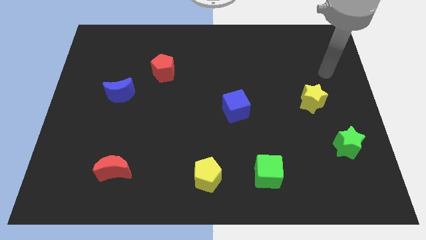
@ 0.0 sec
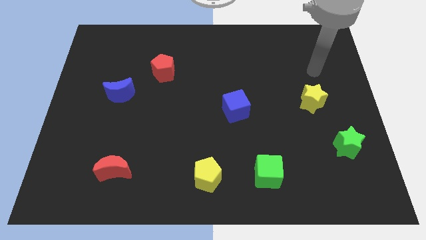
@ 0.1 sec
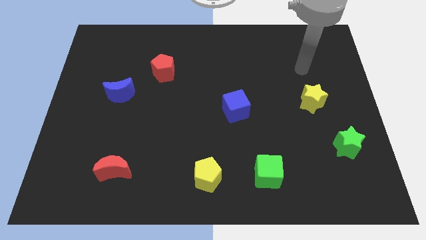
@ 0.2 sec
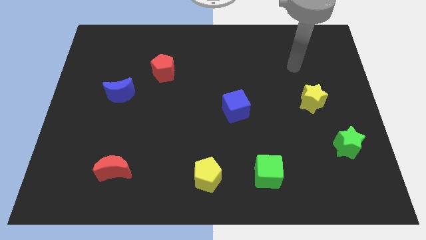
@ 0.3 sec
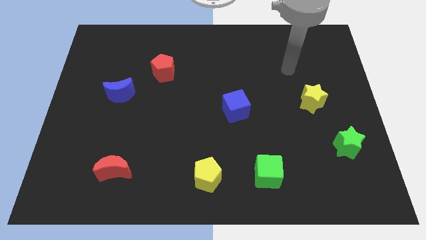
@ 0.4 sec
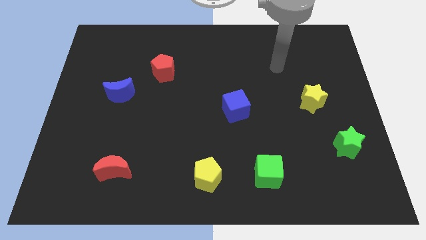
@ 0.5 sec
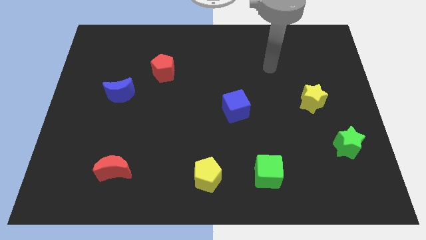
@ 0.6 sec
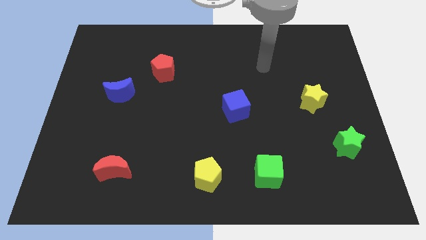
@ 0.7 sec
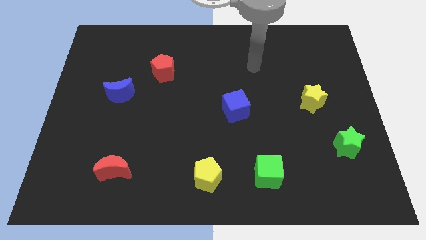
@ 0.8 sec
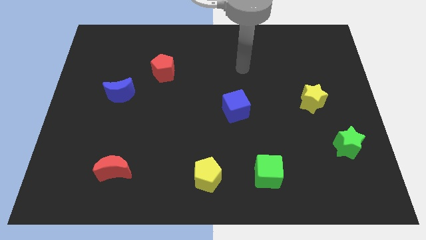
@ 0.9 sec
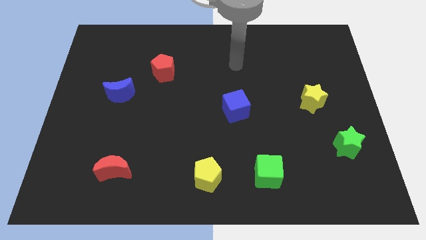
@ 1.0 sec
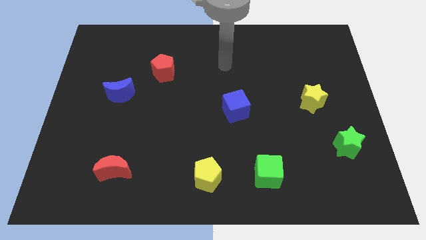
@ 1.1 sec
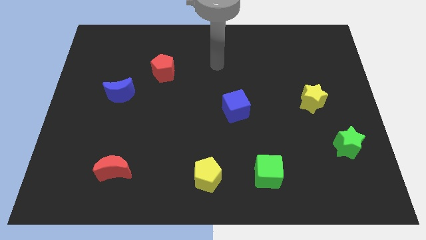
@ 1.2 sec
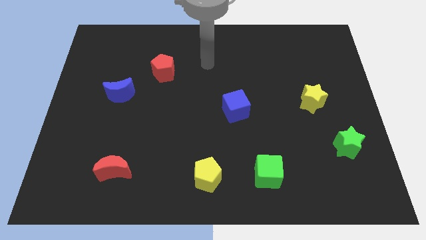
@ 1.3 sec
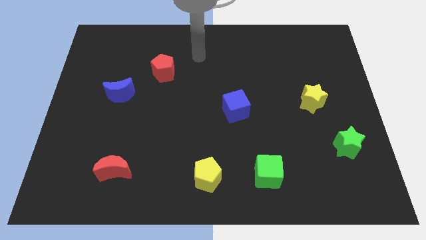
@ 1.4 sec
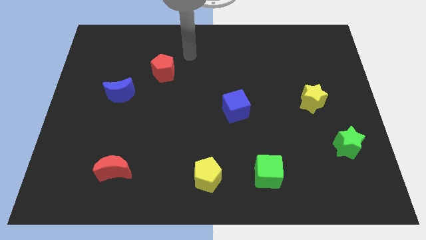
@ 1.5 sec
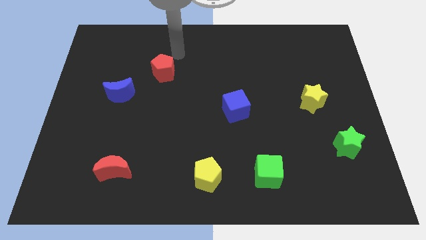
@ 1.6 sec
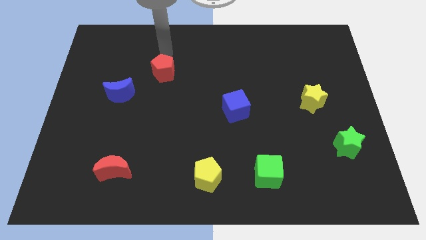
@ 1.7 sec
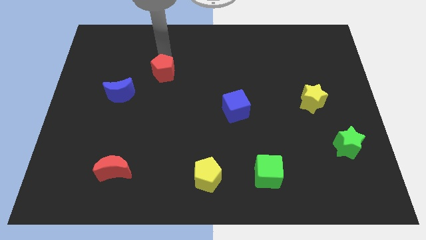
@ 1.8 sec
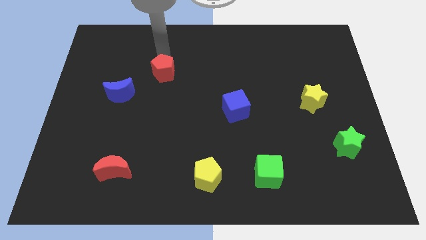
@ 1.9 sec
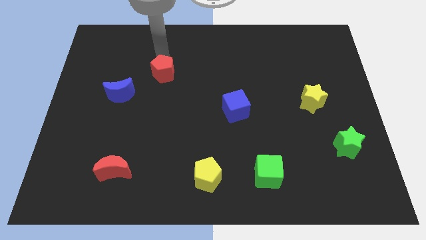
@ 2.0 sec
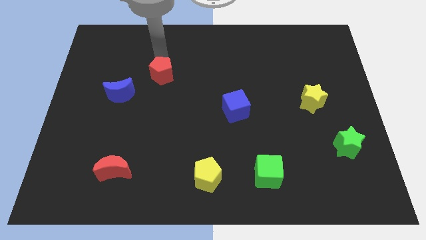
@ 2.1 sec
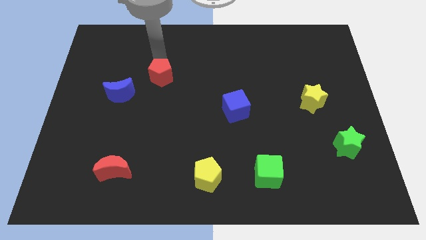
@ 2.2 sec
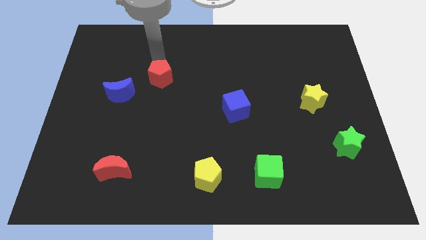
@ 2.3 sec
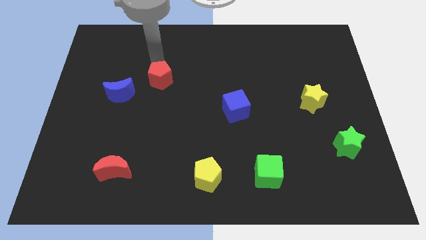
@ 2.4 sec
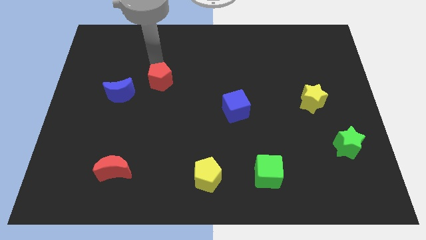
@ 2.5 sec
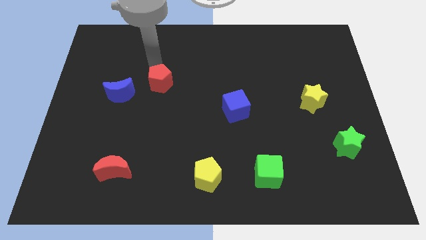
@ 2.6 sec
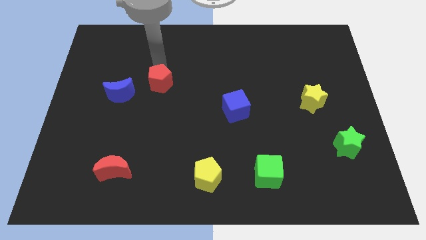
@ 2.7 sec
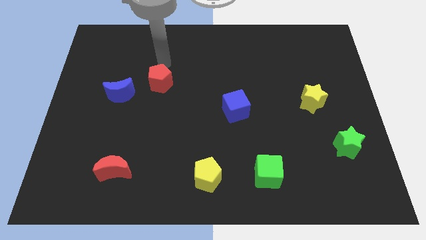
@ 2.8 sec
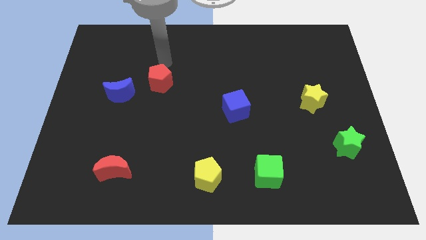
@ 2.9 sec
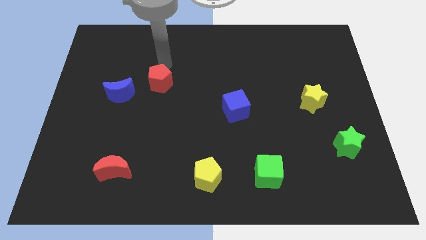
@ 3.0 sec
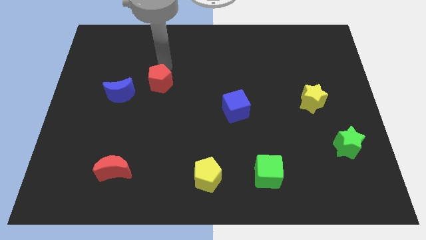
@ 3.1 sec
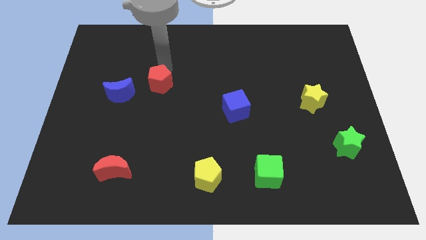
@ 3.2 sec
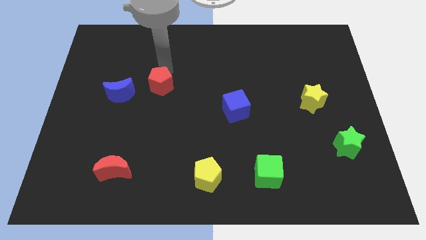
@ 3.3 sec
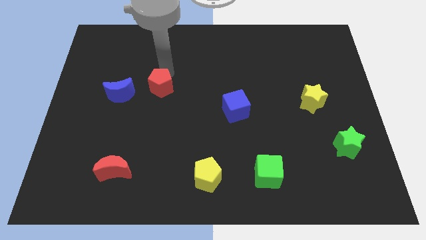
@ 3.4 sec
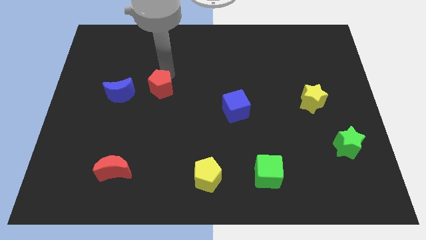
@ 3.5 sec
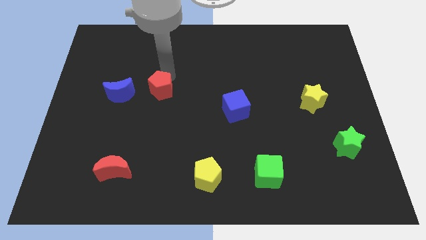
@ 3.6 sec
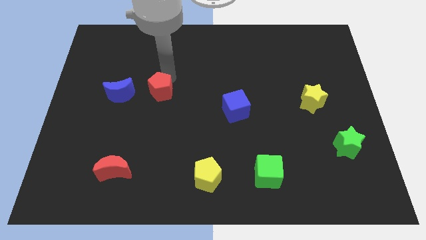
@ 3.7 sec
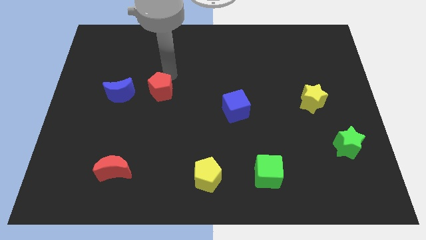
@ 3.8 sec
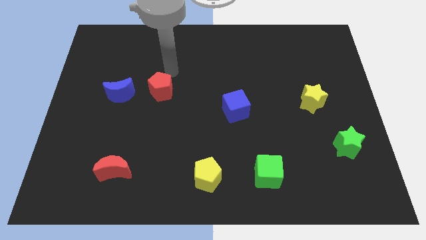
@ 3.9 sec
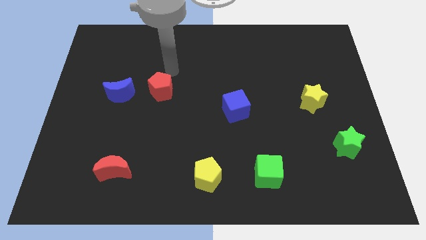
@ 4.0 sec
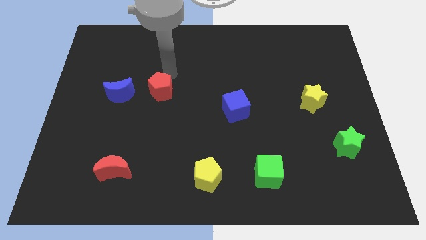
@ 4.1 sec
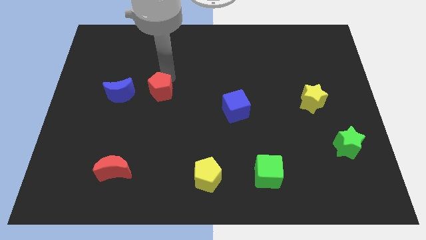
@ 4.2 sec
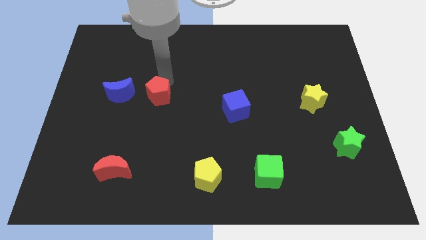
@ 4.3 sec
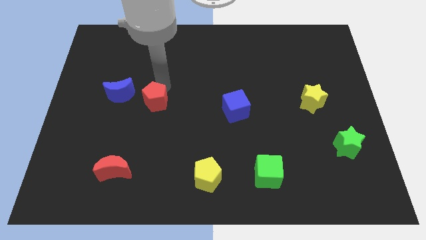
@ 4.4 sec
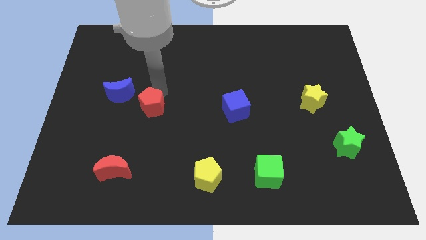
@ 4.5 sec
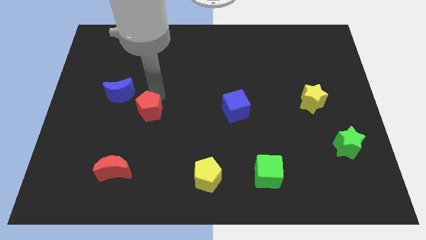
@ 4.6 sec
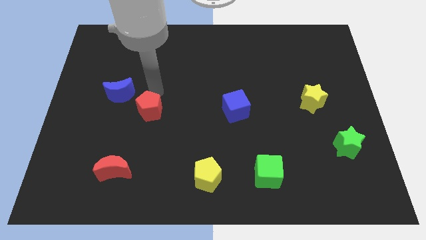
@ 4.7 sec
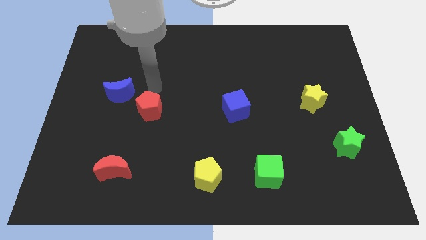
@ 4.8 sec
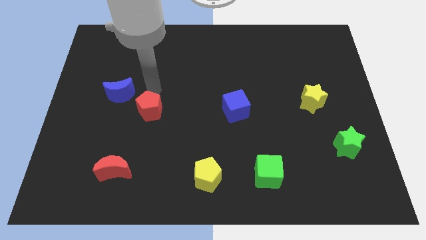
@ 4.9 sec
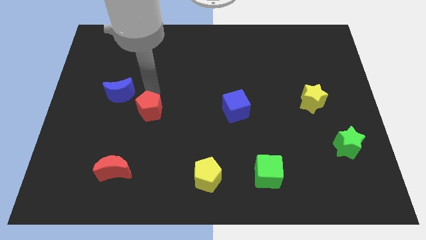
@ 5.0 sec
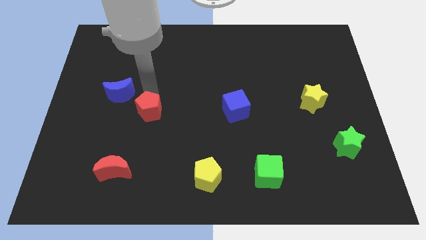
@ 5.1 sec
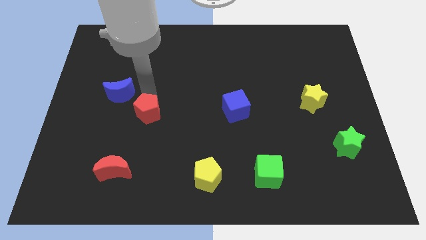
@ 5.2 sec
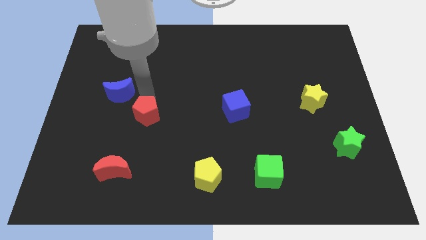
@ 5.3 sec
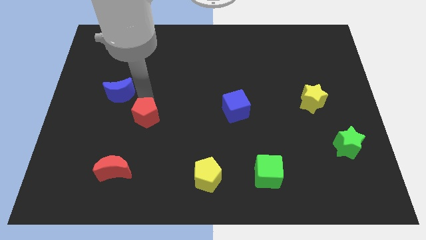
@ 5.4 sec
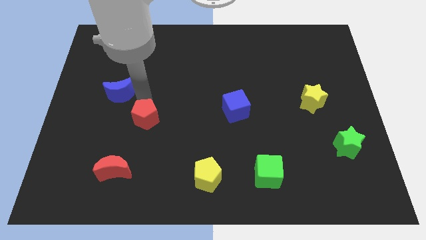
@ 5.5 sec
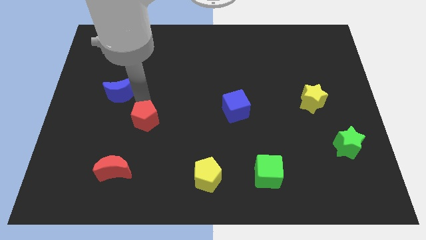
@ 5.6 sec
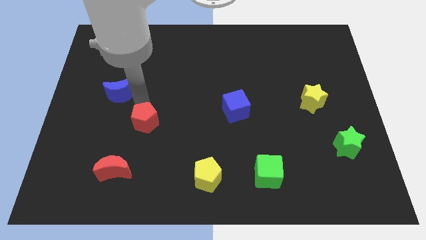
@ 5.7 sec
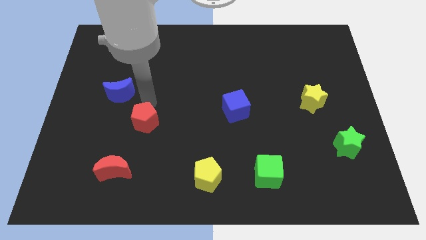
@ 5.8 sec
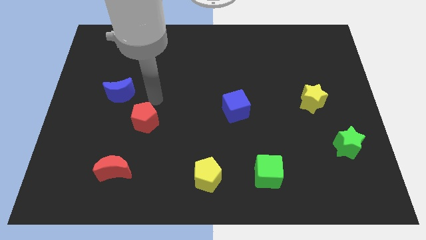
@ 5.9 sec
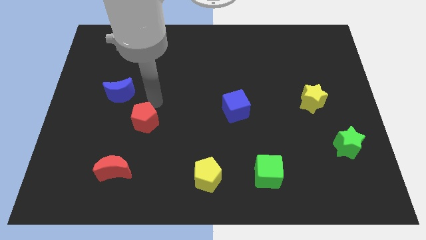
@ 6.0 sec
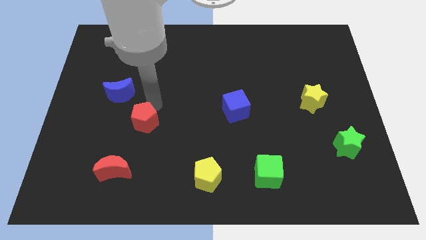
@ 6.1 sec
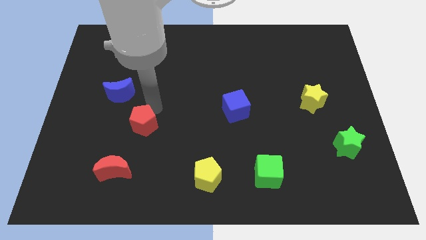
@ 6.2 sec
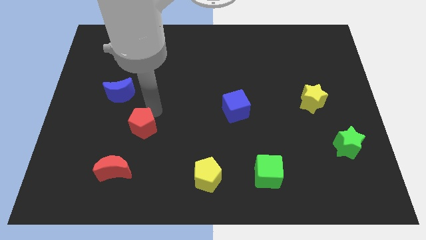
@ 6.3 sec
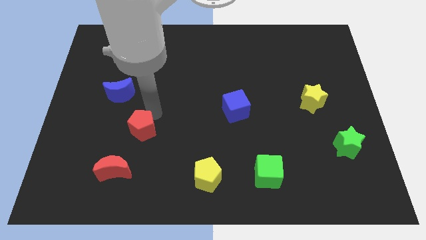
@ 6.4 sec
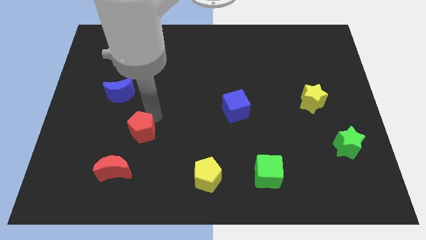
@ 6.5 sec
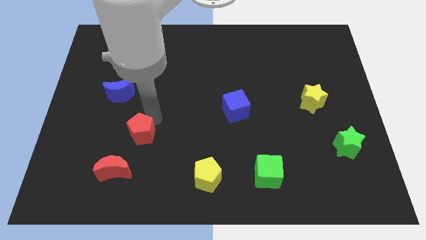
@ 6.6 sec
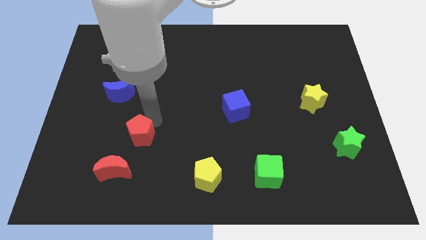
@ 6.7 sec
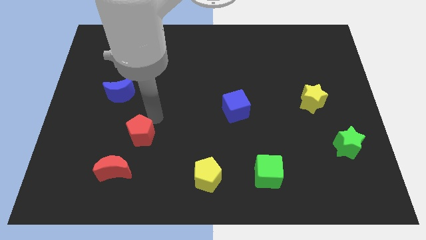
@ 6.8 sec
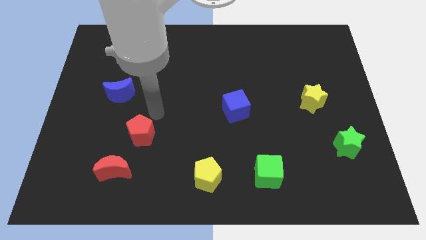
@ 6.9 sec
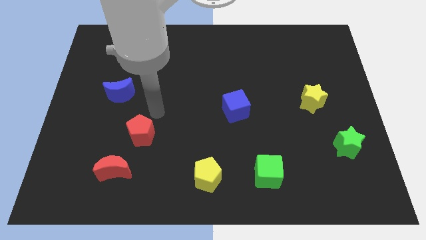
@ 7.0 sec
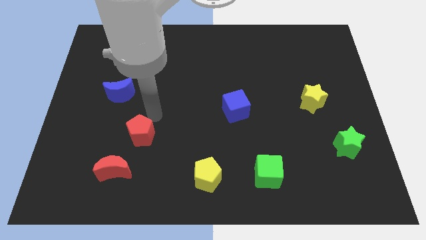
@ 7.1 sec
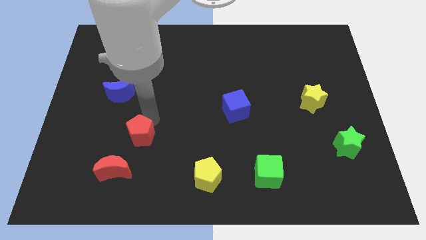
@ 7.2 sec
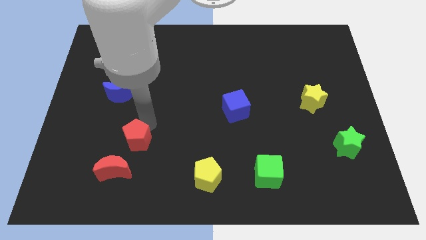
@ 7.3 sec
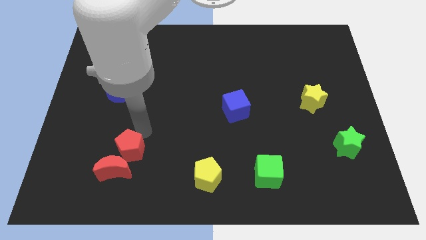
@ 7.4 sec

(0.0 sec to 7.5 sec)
push the red pentagon close to the red moon
